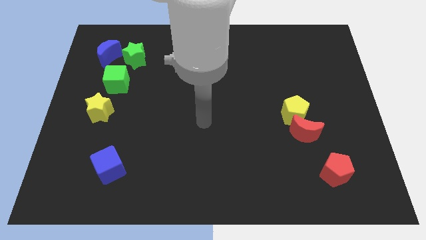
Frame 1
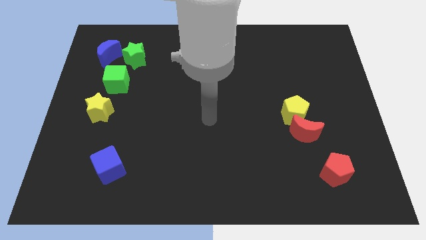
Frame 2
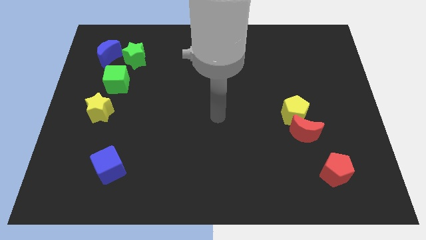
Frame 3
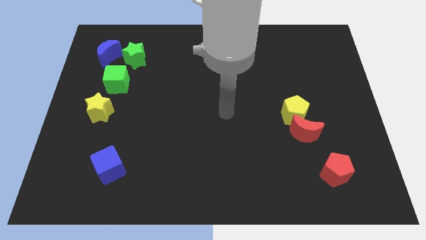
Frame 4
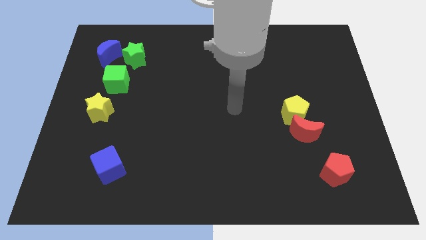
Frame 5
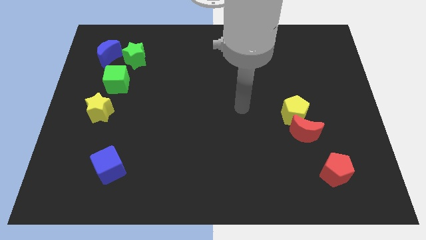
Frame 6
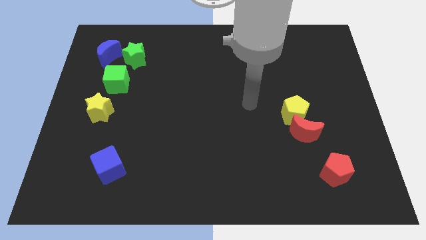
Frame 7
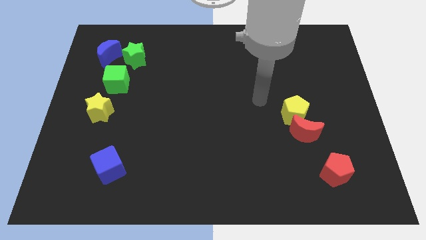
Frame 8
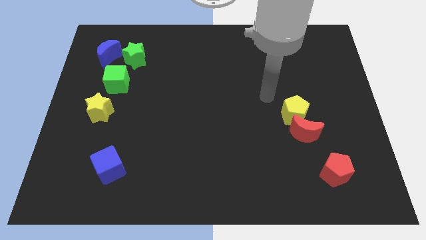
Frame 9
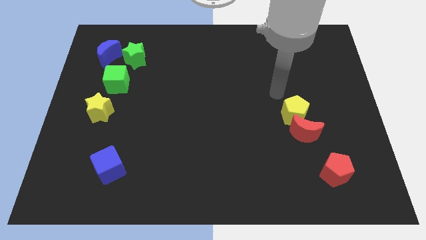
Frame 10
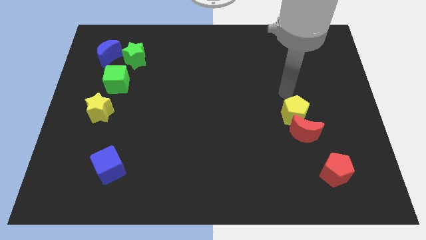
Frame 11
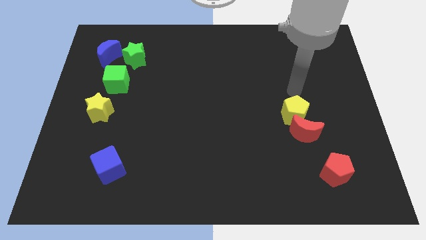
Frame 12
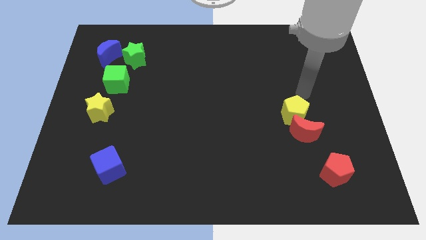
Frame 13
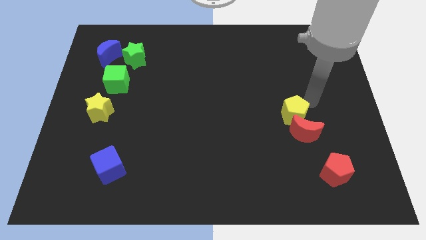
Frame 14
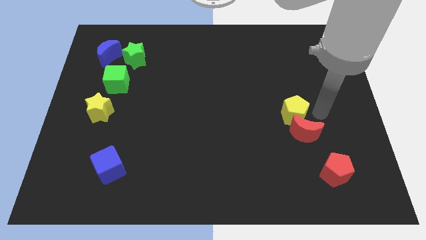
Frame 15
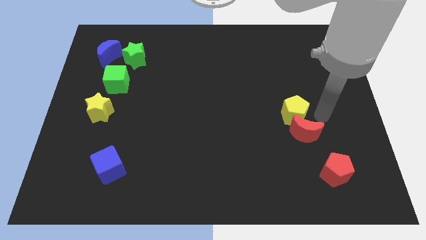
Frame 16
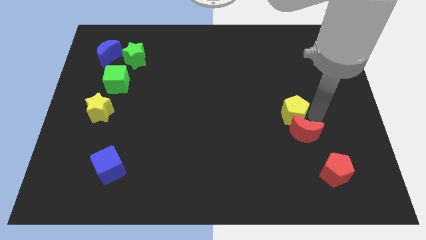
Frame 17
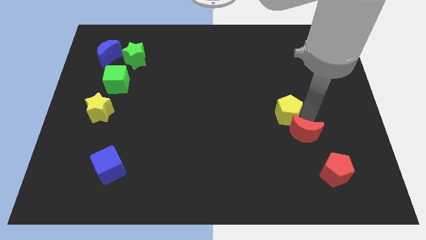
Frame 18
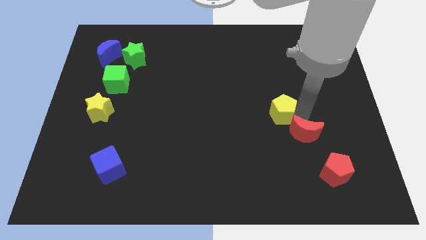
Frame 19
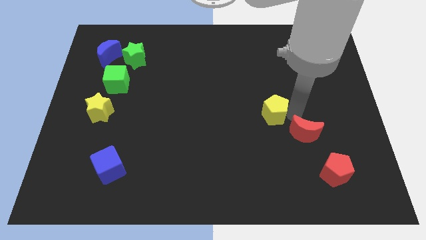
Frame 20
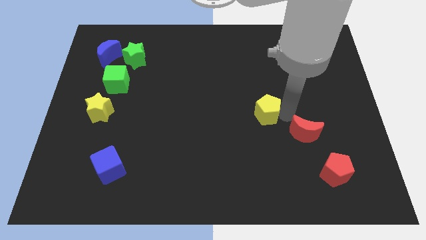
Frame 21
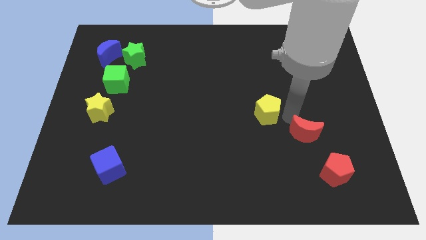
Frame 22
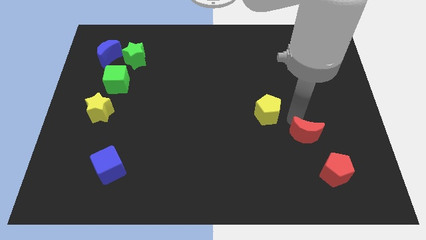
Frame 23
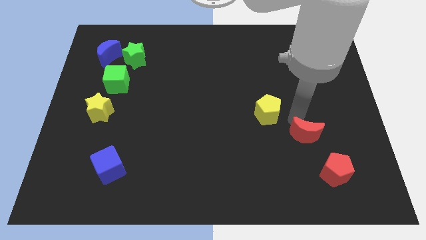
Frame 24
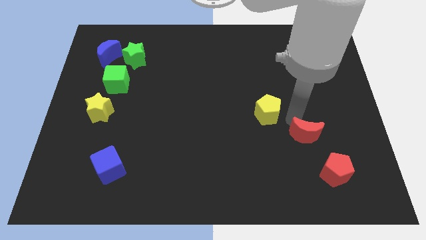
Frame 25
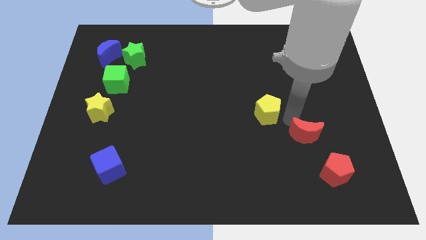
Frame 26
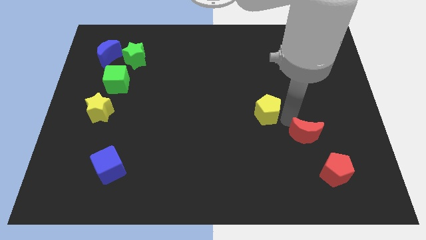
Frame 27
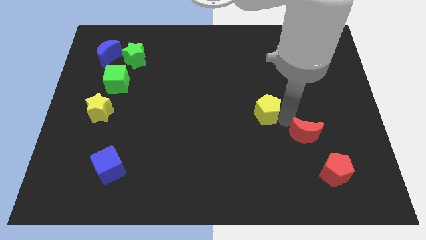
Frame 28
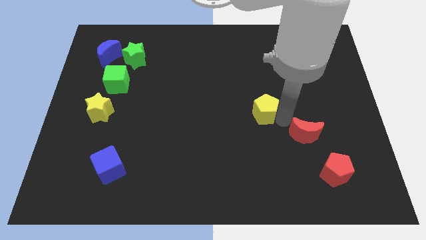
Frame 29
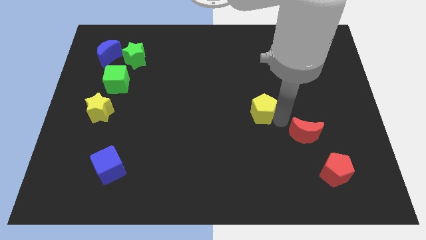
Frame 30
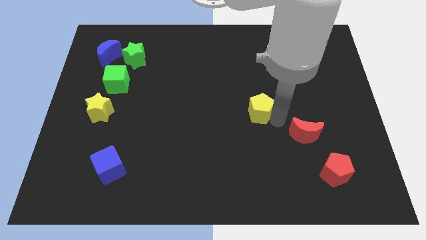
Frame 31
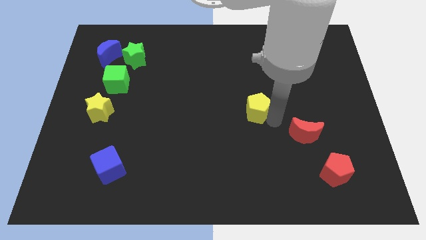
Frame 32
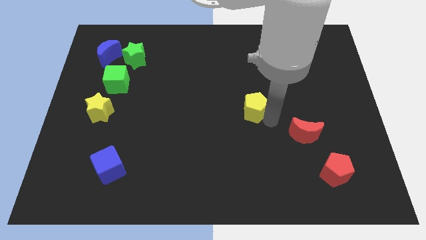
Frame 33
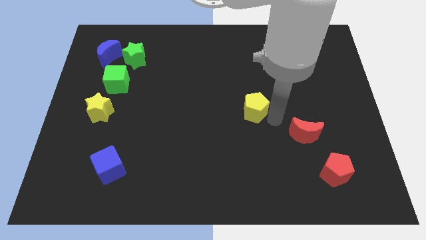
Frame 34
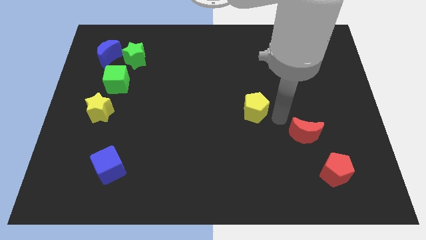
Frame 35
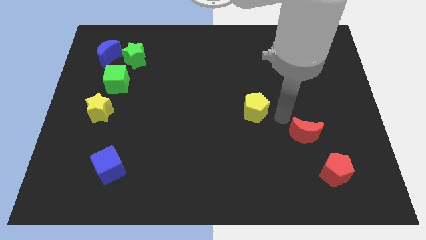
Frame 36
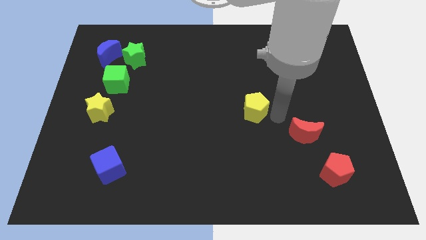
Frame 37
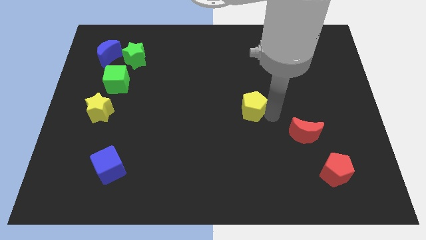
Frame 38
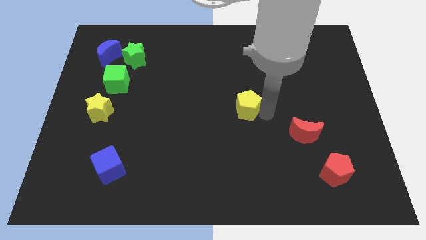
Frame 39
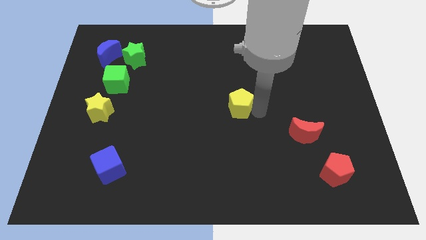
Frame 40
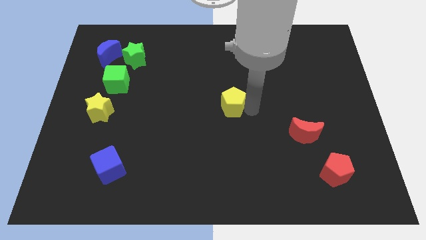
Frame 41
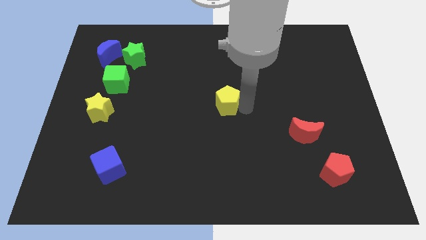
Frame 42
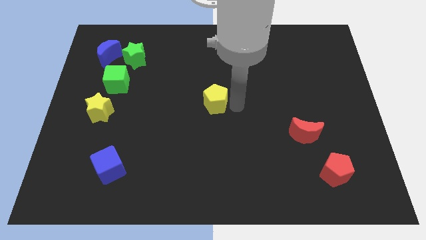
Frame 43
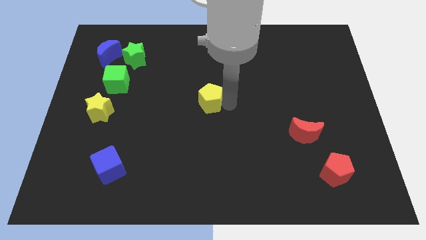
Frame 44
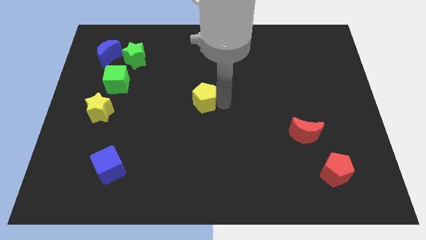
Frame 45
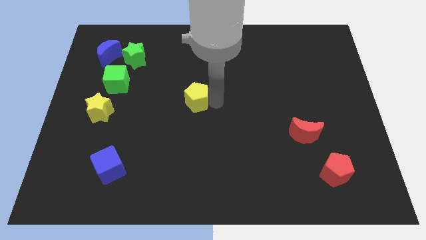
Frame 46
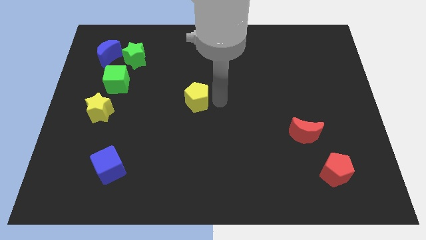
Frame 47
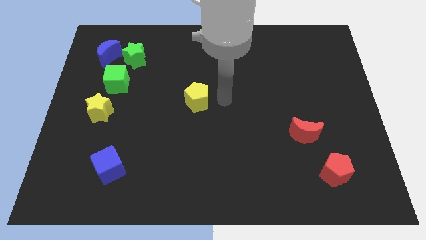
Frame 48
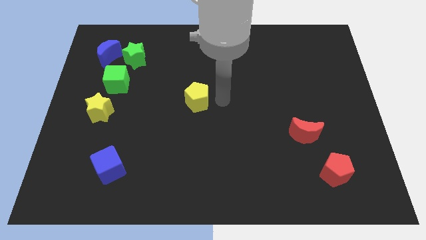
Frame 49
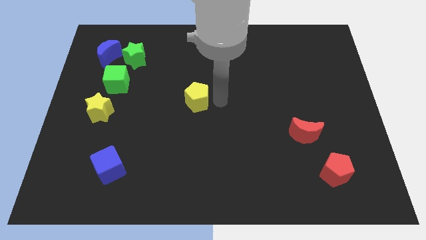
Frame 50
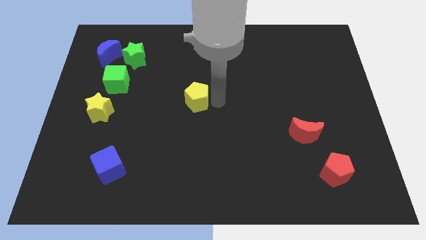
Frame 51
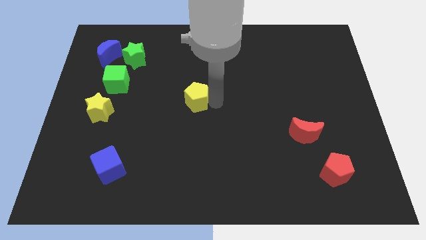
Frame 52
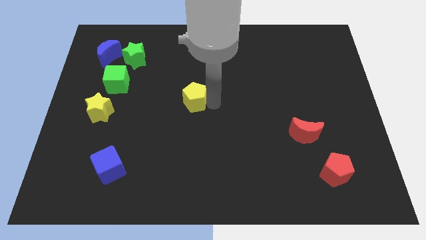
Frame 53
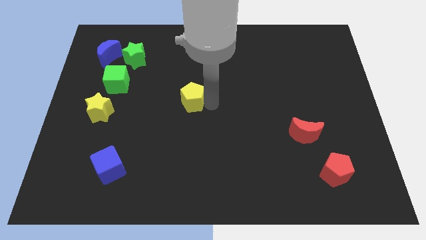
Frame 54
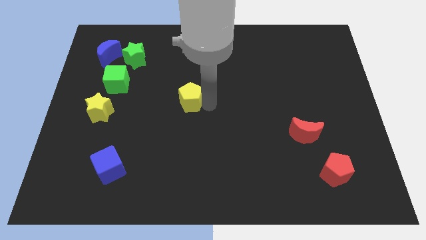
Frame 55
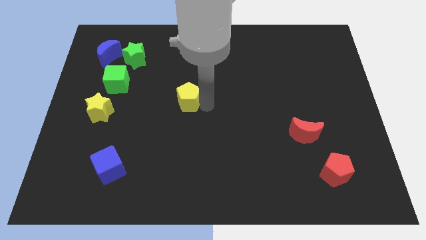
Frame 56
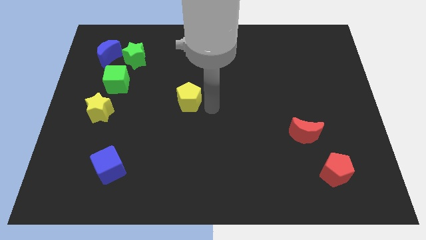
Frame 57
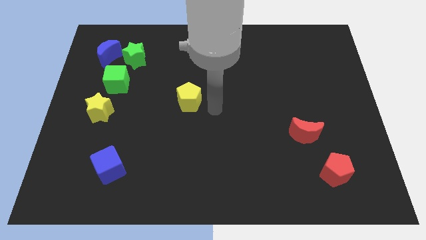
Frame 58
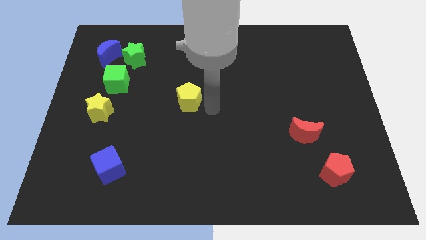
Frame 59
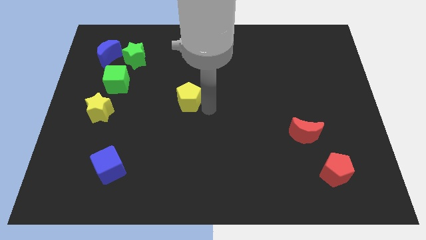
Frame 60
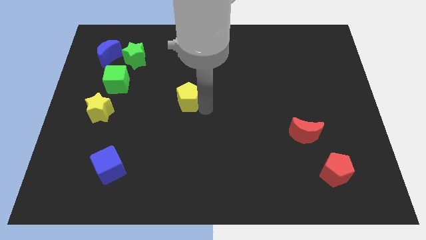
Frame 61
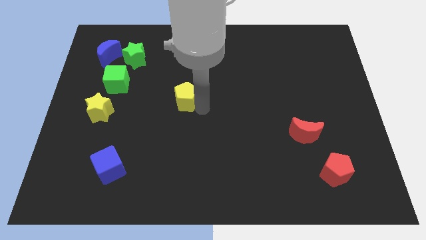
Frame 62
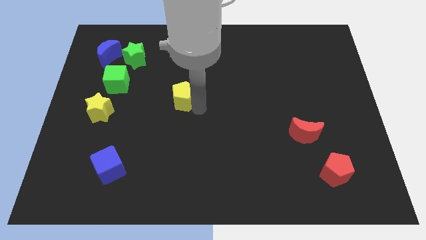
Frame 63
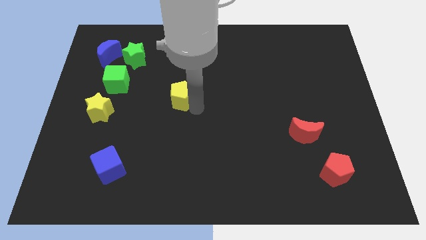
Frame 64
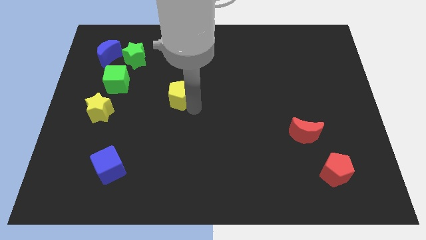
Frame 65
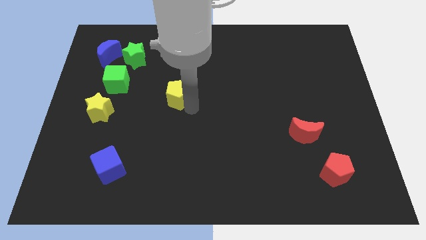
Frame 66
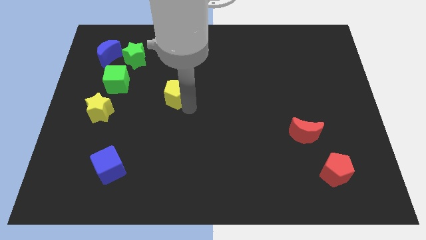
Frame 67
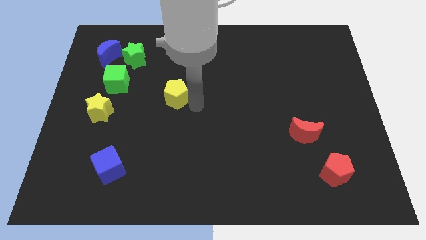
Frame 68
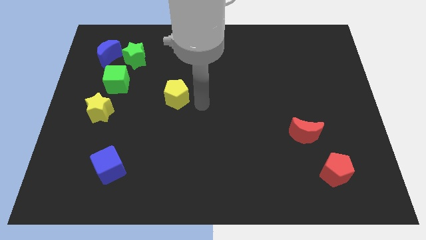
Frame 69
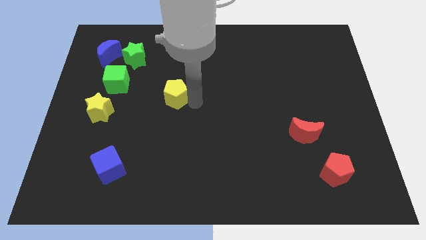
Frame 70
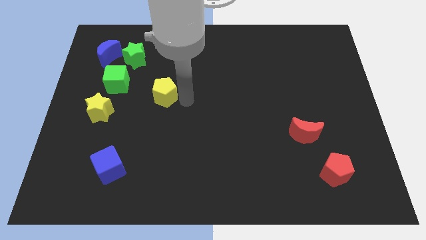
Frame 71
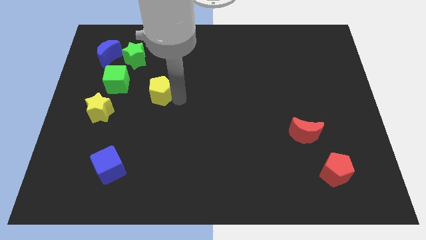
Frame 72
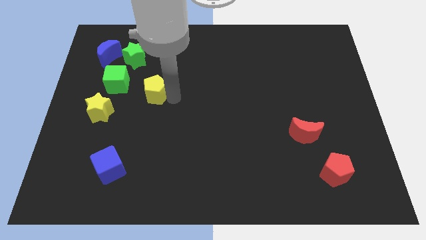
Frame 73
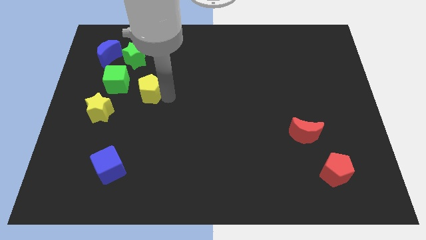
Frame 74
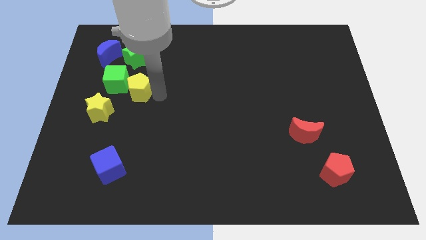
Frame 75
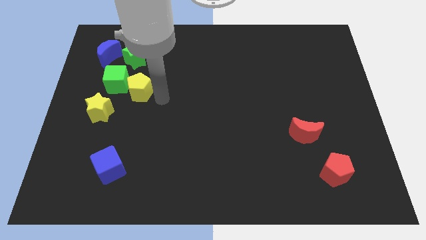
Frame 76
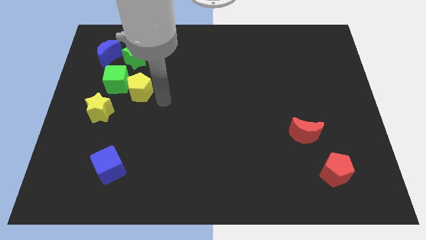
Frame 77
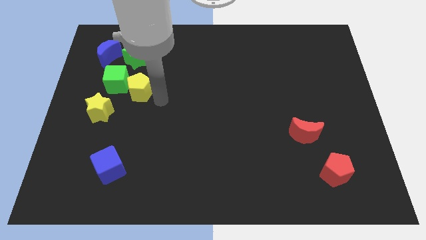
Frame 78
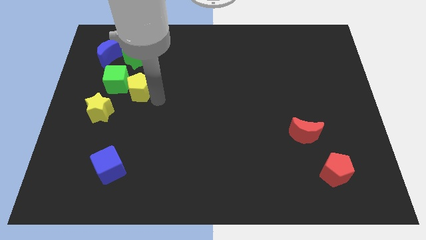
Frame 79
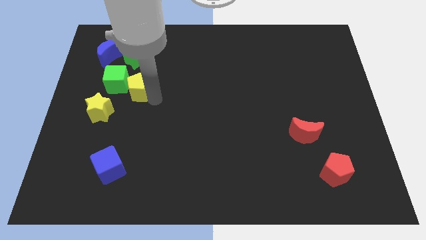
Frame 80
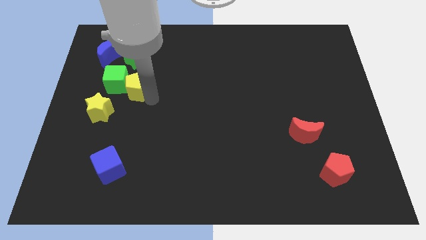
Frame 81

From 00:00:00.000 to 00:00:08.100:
push the yellow pentagon close to the green cube

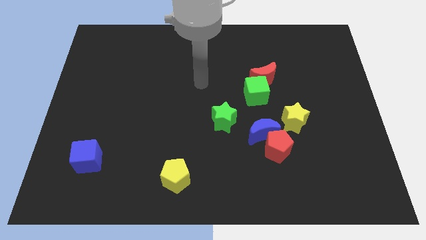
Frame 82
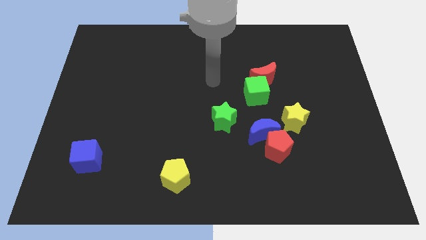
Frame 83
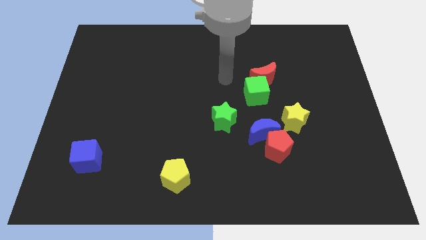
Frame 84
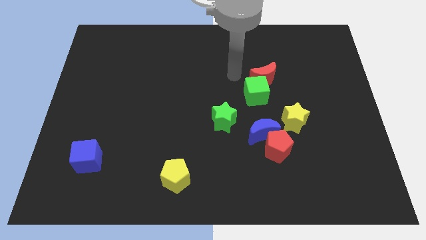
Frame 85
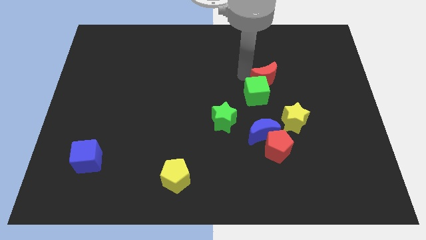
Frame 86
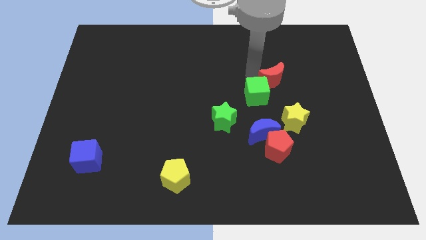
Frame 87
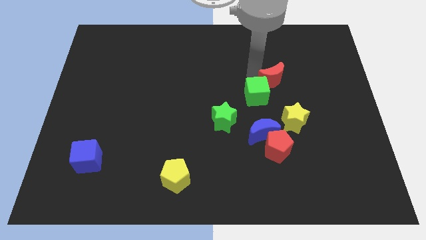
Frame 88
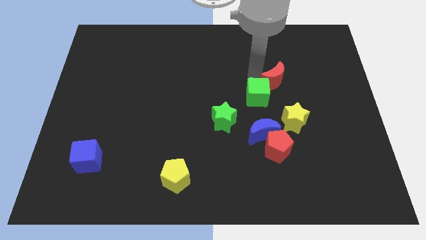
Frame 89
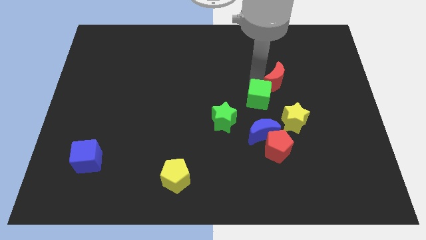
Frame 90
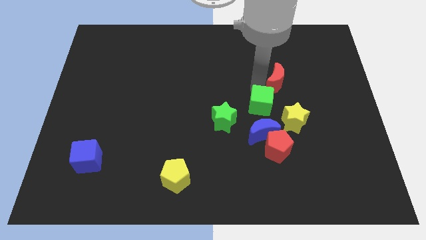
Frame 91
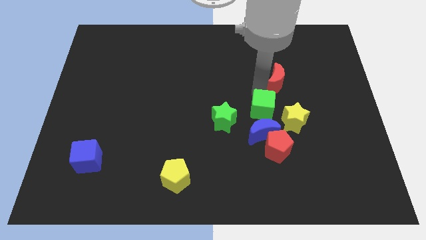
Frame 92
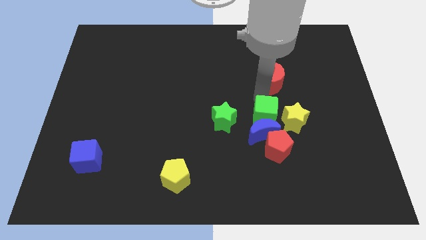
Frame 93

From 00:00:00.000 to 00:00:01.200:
push the green cube to the blue moon
